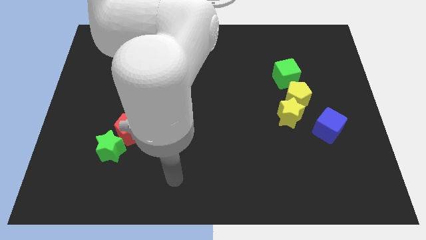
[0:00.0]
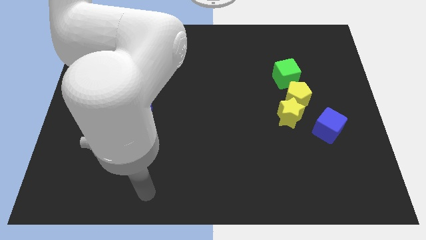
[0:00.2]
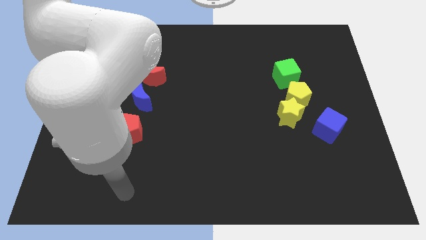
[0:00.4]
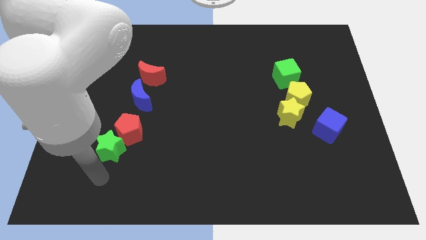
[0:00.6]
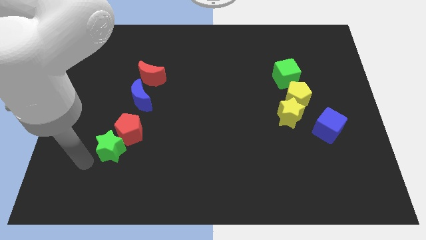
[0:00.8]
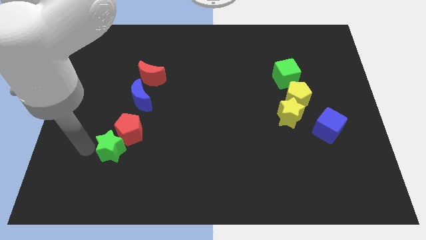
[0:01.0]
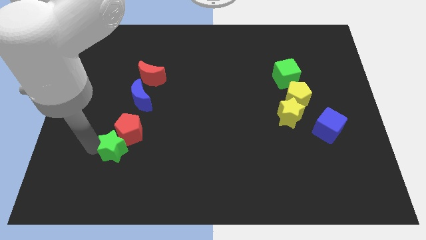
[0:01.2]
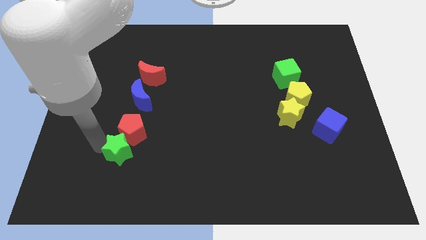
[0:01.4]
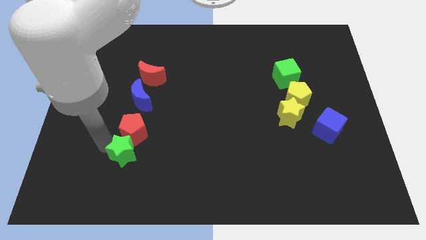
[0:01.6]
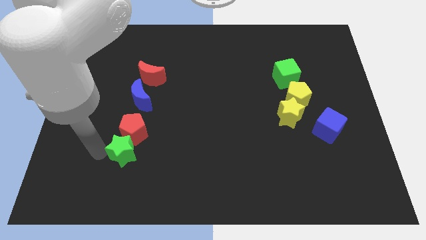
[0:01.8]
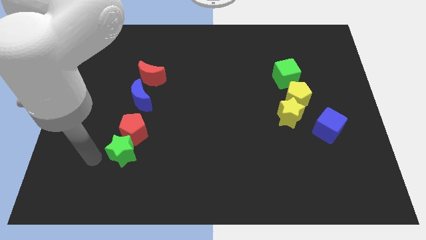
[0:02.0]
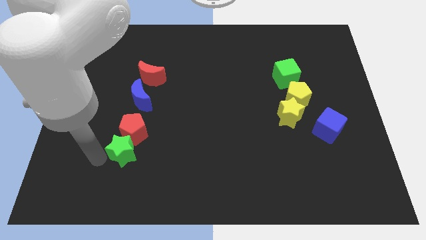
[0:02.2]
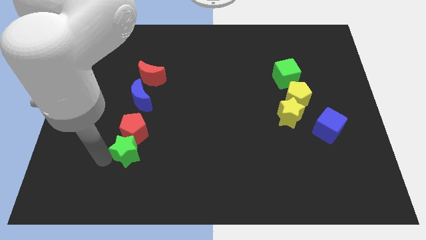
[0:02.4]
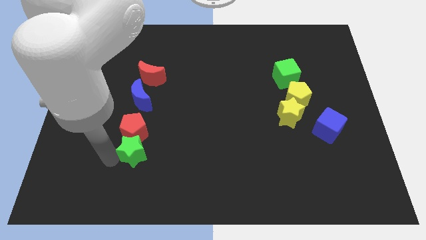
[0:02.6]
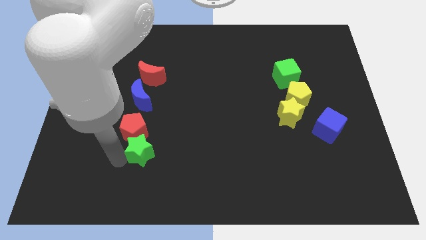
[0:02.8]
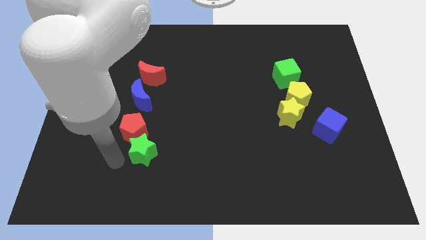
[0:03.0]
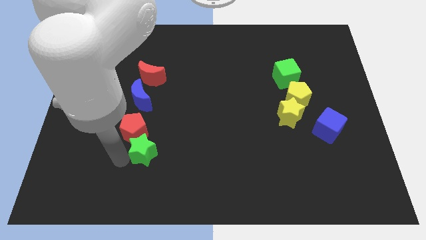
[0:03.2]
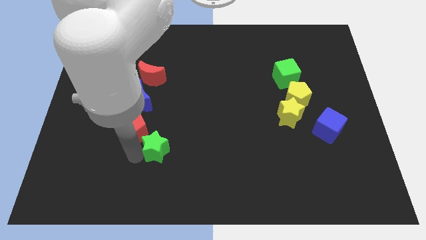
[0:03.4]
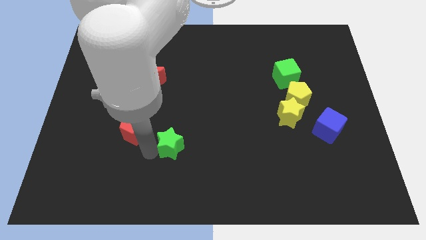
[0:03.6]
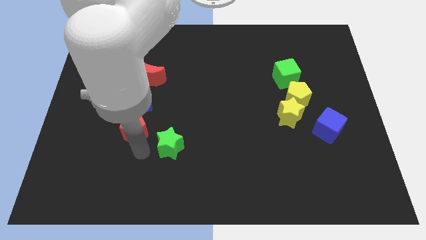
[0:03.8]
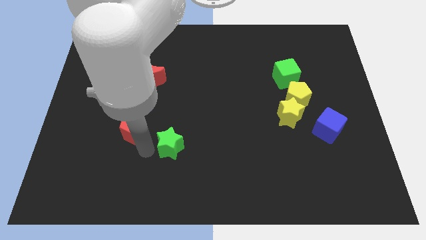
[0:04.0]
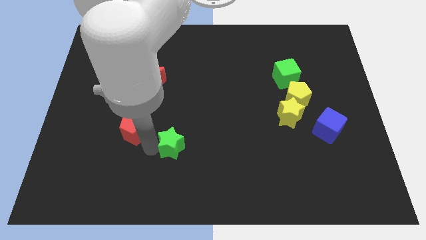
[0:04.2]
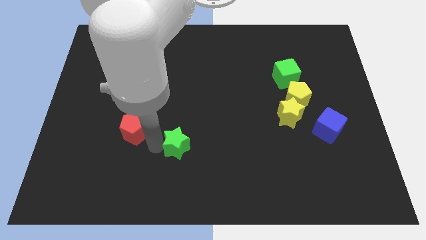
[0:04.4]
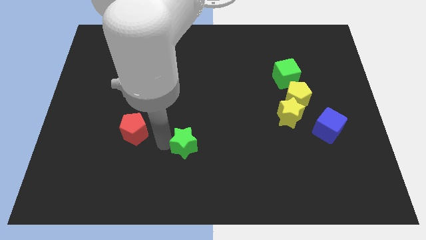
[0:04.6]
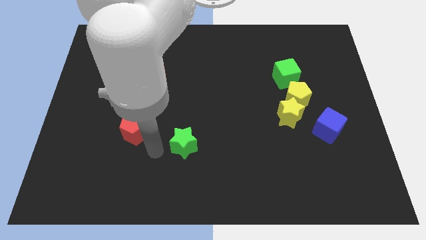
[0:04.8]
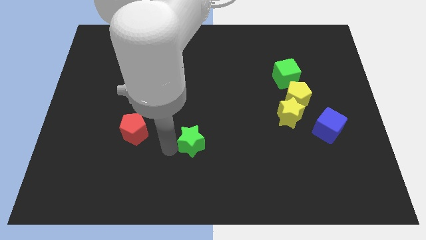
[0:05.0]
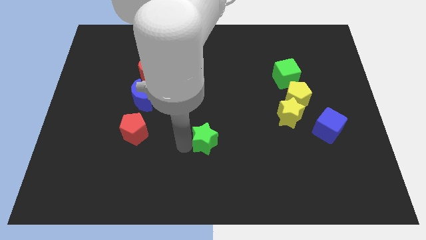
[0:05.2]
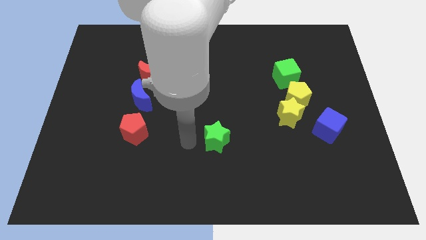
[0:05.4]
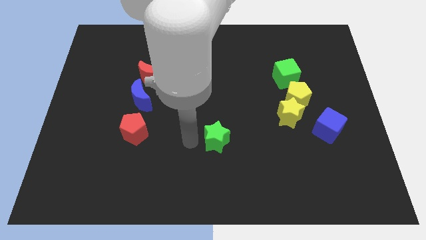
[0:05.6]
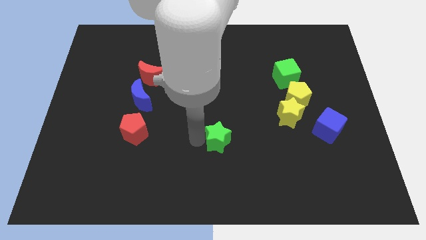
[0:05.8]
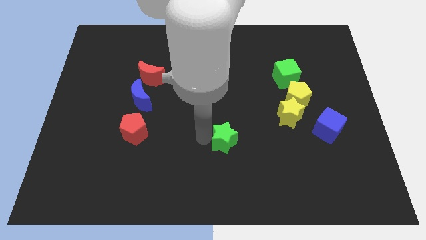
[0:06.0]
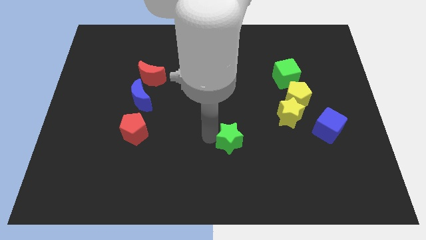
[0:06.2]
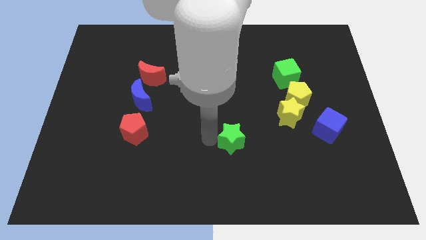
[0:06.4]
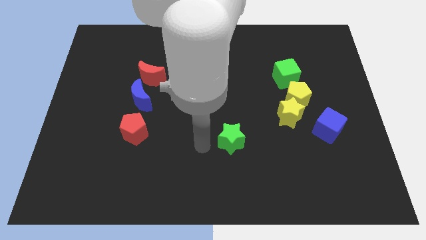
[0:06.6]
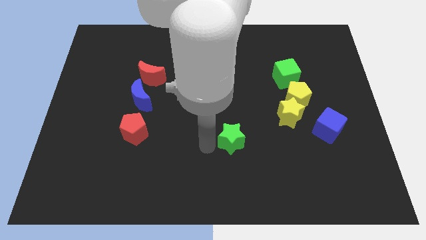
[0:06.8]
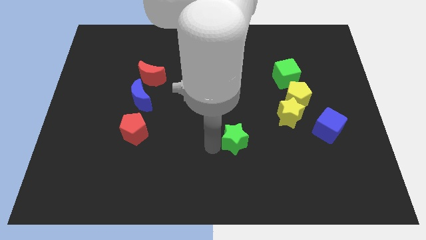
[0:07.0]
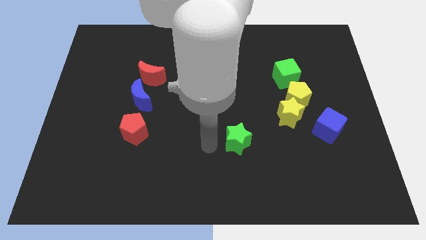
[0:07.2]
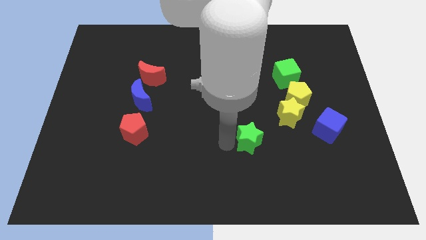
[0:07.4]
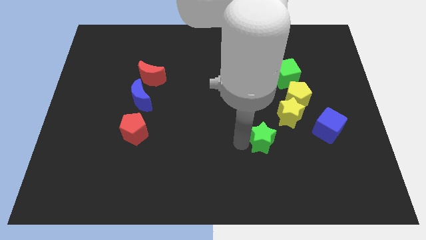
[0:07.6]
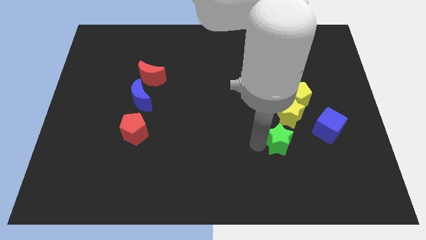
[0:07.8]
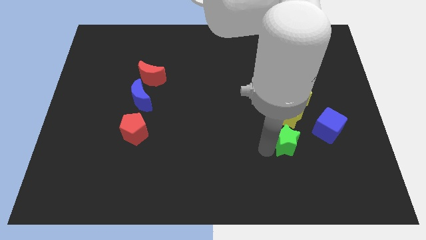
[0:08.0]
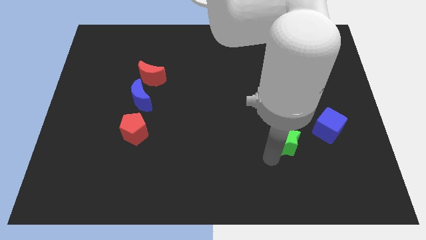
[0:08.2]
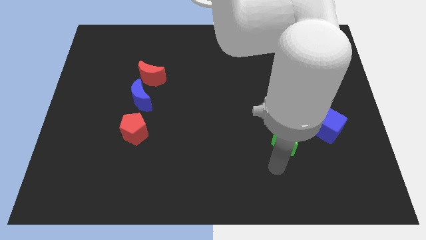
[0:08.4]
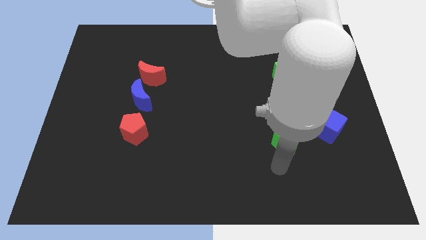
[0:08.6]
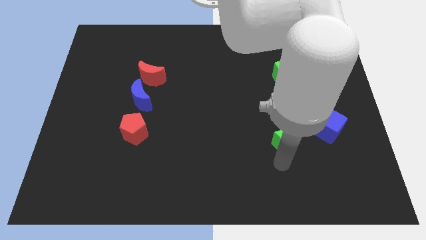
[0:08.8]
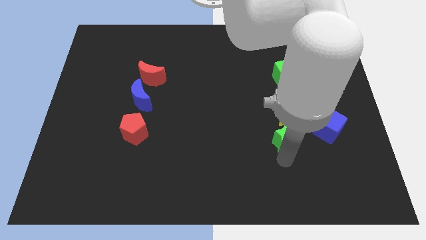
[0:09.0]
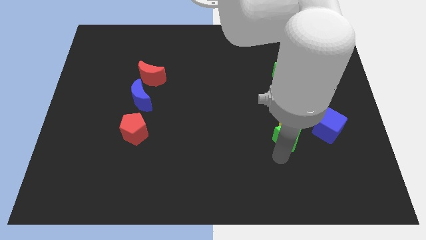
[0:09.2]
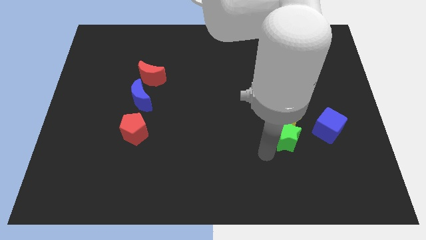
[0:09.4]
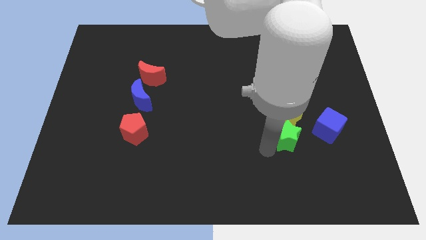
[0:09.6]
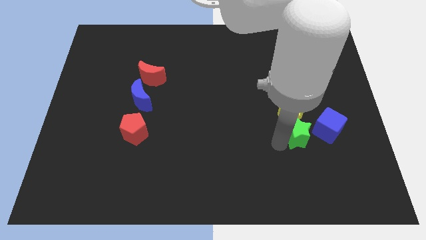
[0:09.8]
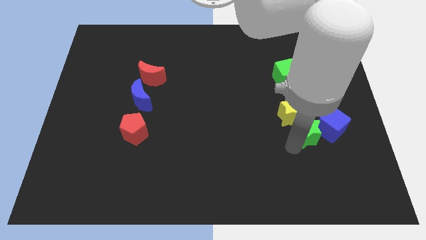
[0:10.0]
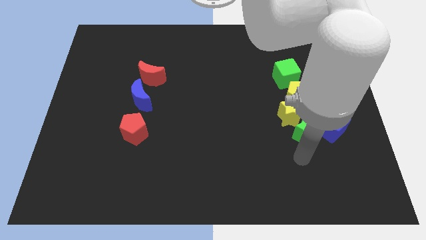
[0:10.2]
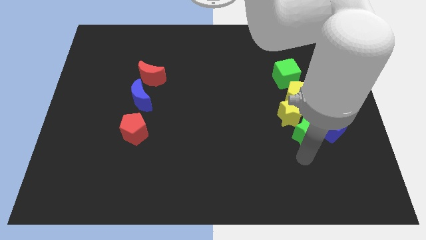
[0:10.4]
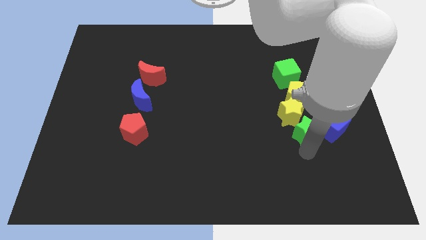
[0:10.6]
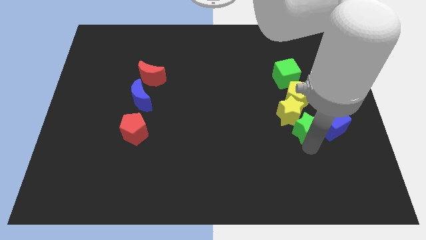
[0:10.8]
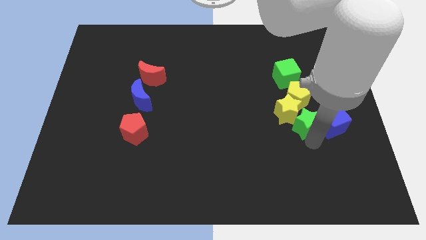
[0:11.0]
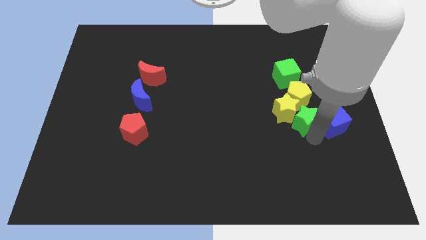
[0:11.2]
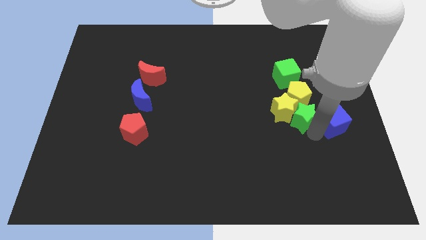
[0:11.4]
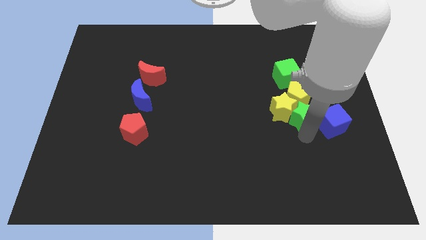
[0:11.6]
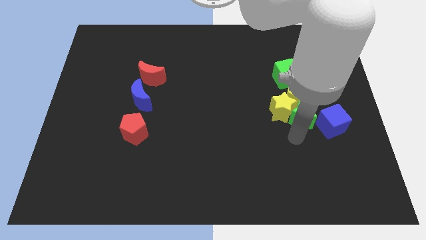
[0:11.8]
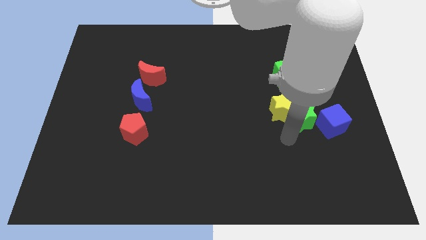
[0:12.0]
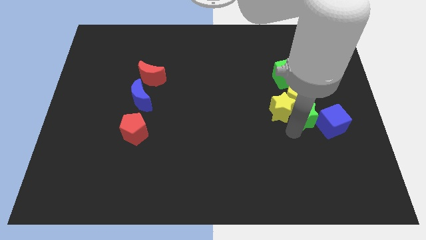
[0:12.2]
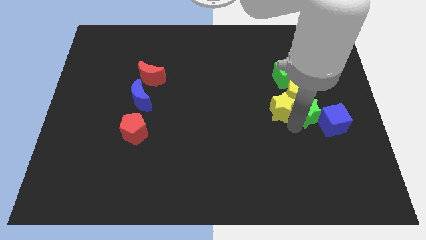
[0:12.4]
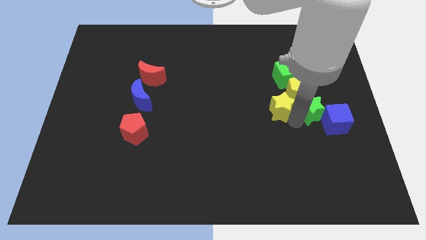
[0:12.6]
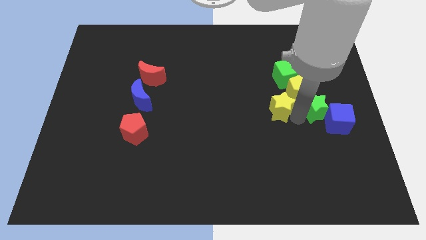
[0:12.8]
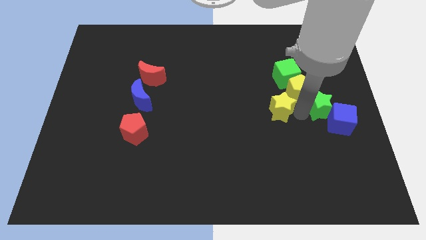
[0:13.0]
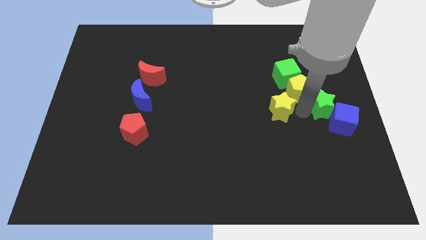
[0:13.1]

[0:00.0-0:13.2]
slide the green star to the center right

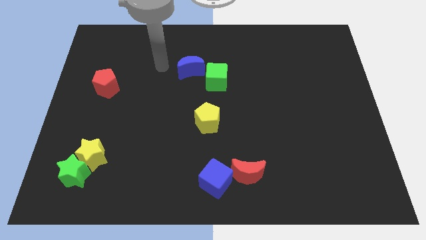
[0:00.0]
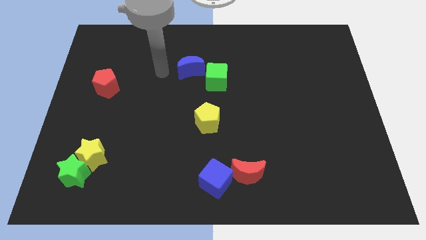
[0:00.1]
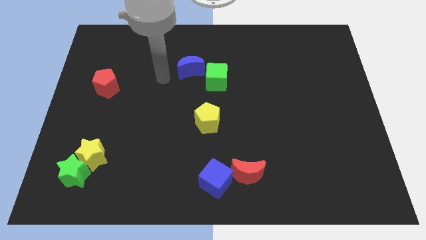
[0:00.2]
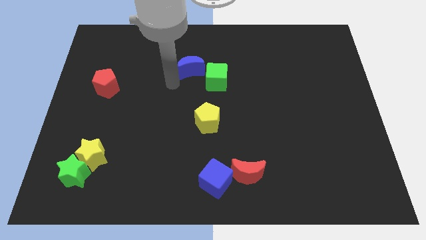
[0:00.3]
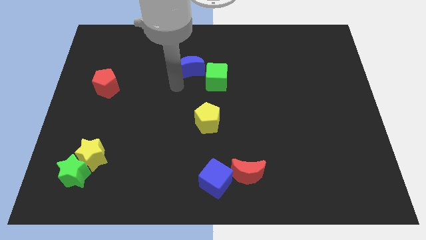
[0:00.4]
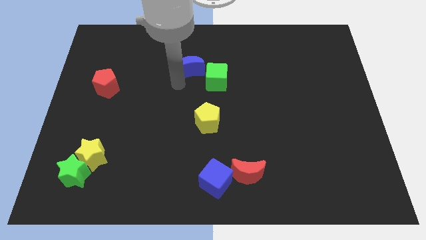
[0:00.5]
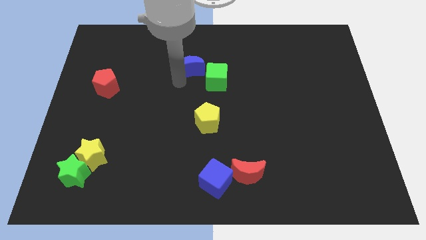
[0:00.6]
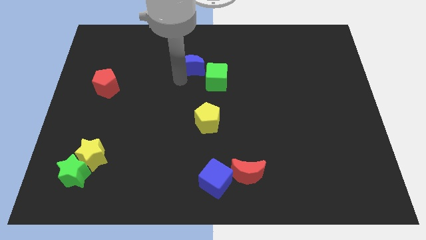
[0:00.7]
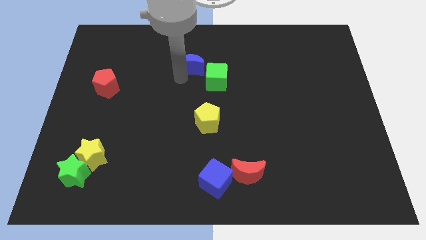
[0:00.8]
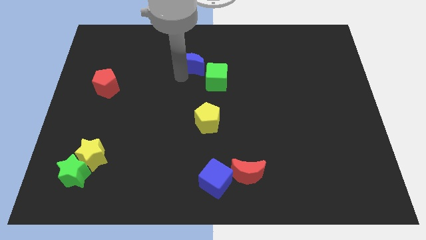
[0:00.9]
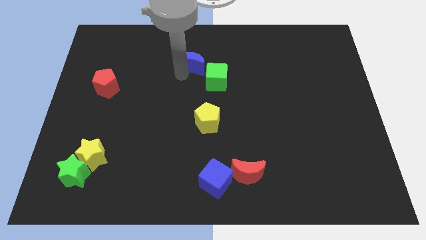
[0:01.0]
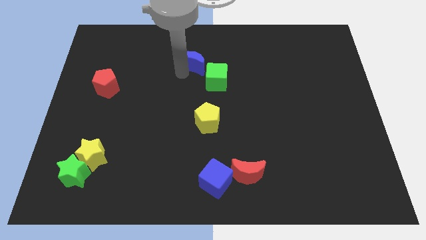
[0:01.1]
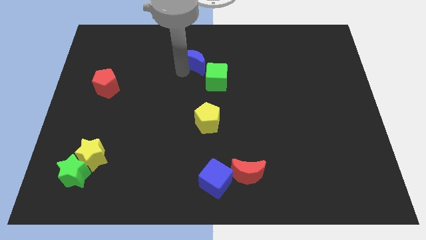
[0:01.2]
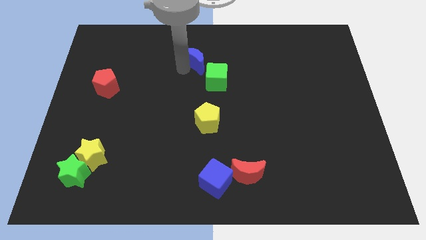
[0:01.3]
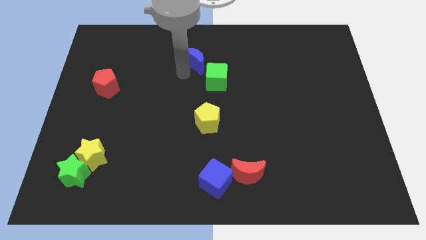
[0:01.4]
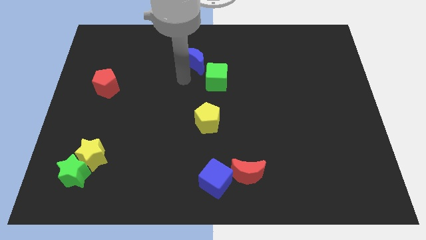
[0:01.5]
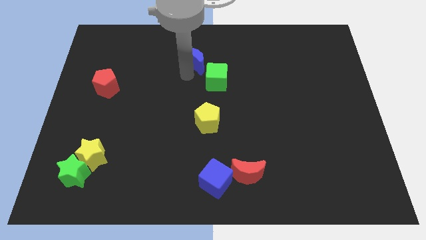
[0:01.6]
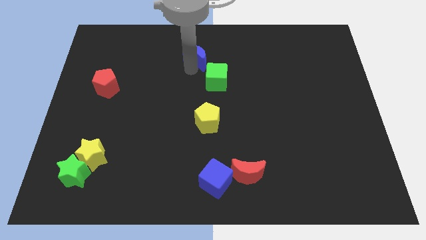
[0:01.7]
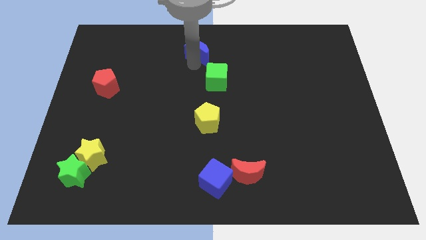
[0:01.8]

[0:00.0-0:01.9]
slide the blue moon to the towards your base
